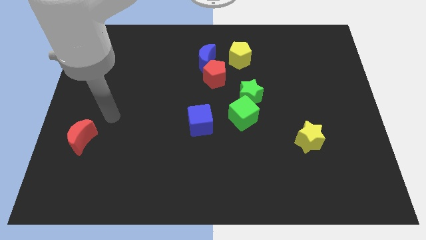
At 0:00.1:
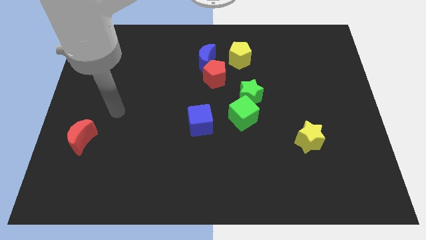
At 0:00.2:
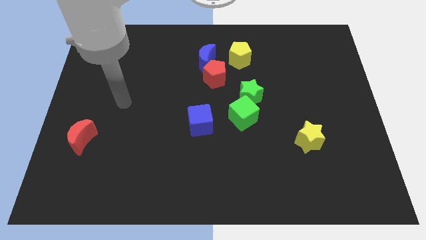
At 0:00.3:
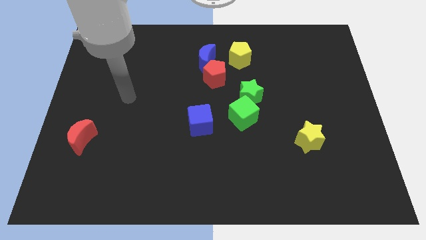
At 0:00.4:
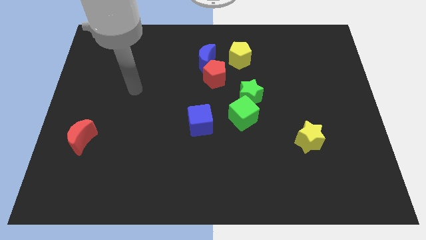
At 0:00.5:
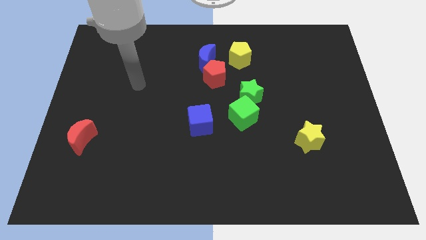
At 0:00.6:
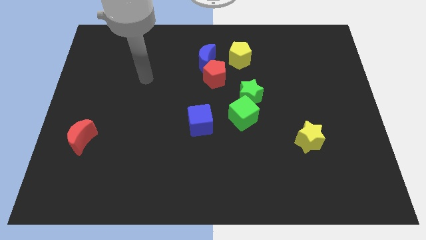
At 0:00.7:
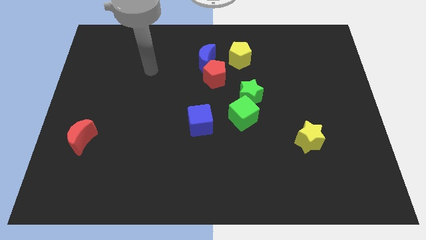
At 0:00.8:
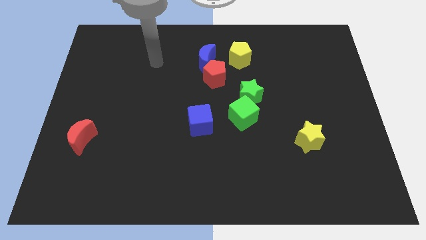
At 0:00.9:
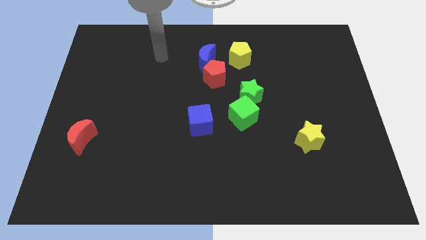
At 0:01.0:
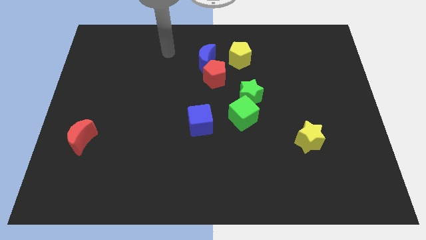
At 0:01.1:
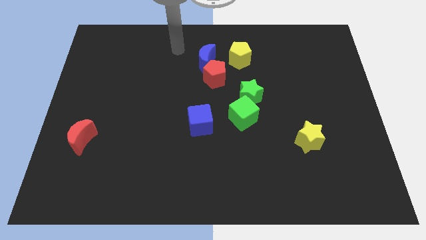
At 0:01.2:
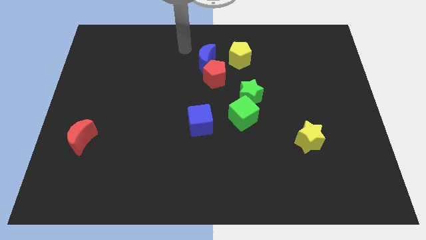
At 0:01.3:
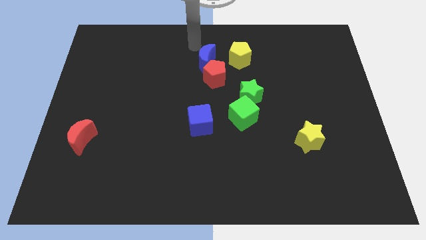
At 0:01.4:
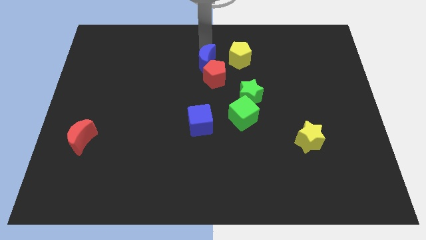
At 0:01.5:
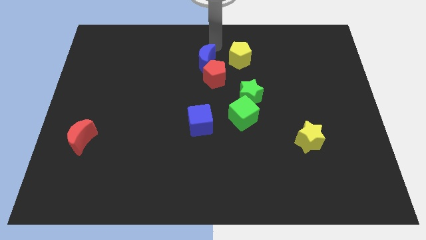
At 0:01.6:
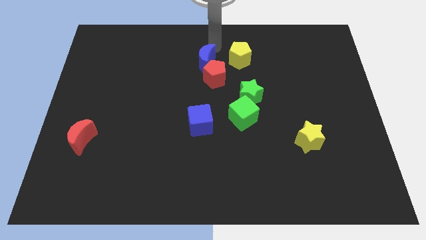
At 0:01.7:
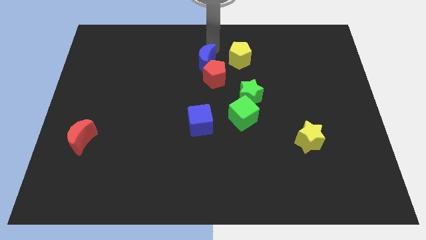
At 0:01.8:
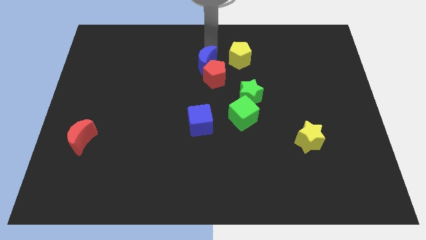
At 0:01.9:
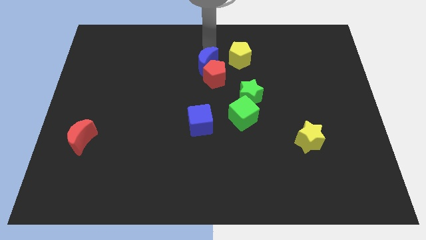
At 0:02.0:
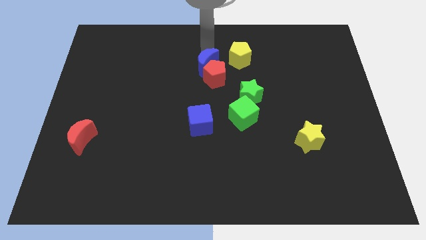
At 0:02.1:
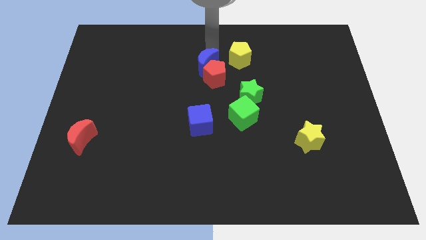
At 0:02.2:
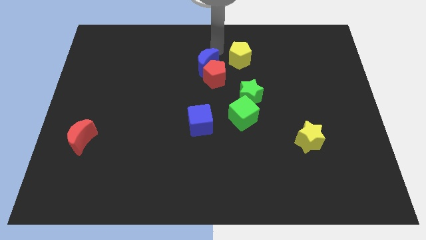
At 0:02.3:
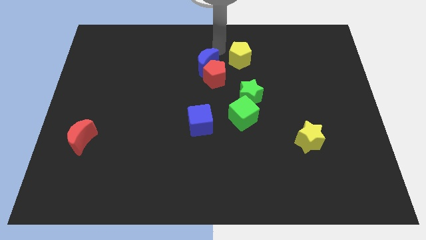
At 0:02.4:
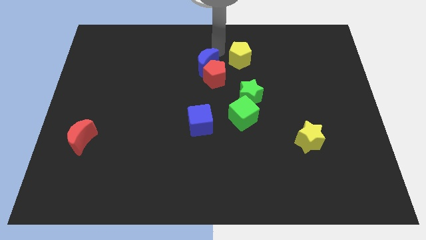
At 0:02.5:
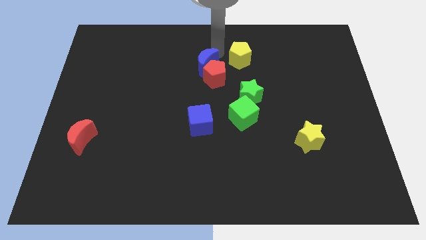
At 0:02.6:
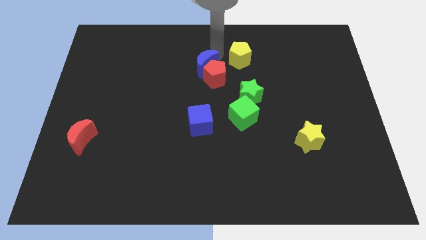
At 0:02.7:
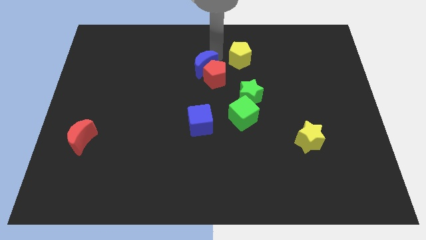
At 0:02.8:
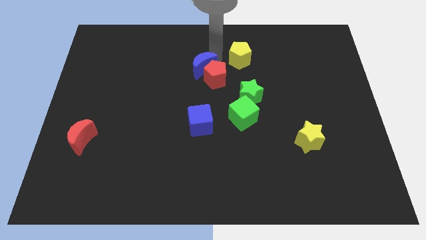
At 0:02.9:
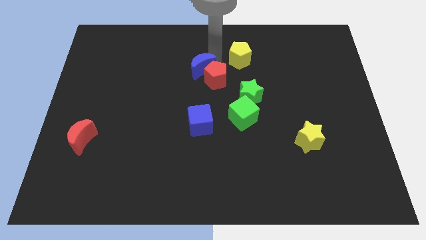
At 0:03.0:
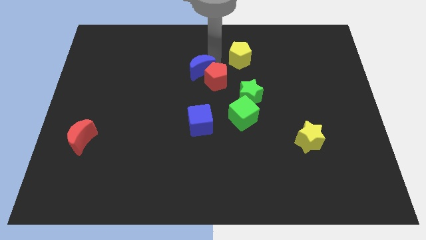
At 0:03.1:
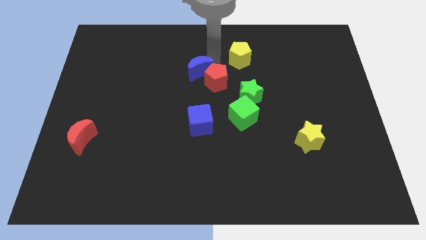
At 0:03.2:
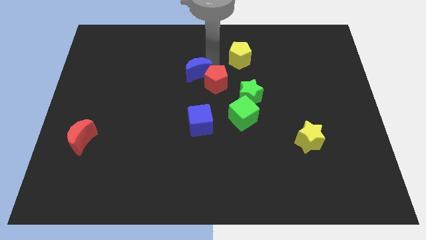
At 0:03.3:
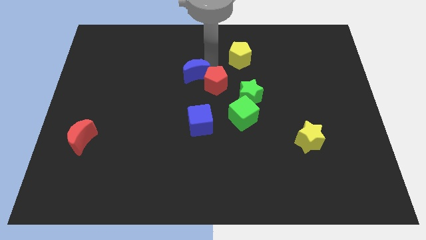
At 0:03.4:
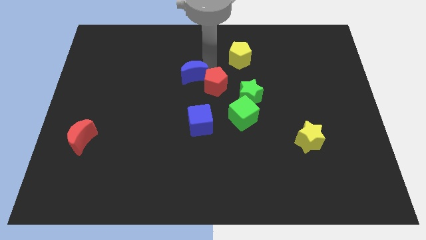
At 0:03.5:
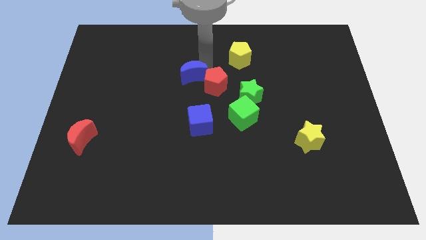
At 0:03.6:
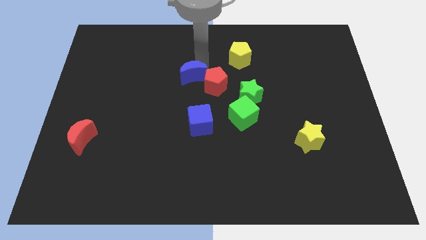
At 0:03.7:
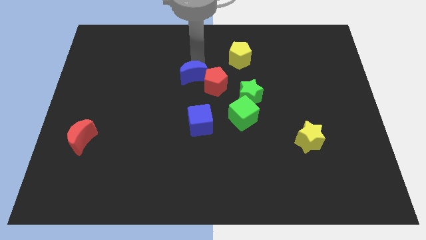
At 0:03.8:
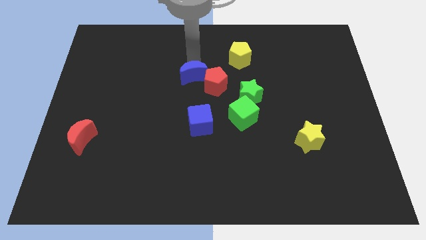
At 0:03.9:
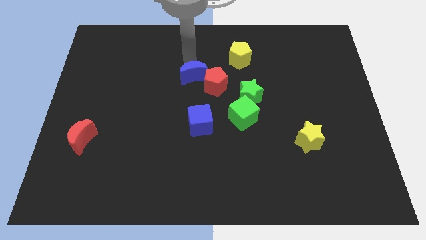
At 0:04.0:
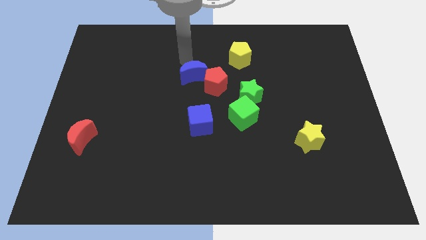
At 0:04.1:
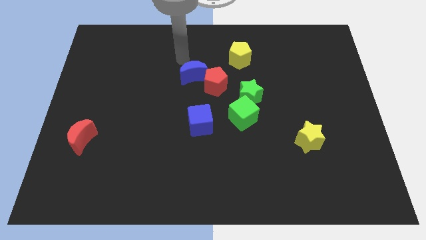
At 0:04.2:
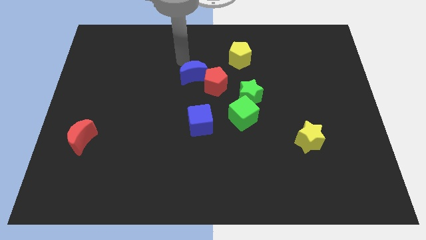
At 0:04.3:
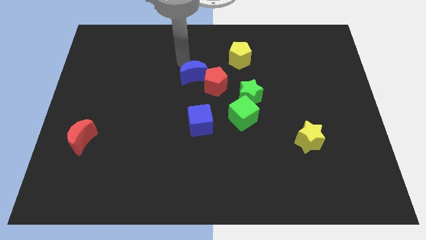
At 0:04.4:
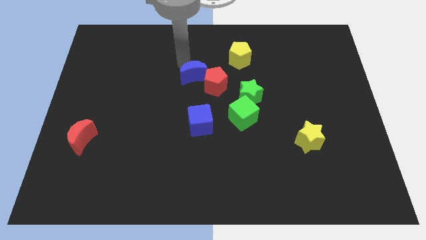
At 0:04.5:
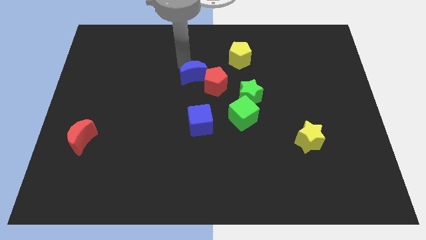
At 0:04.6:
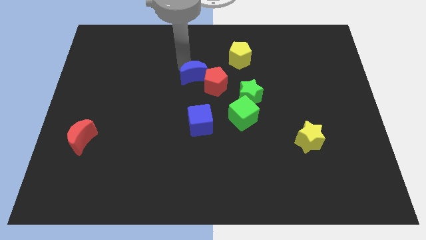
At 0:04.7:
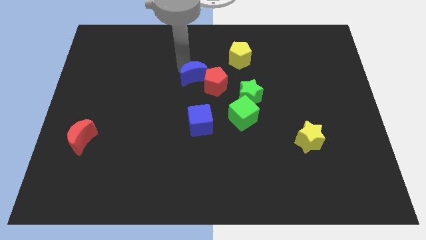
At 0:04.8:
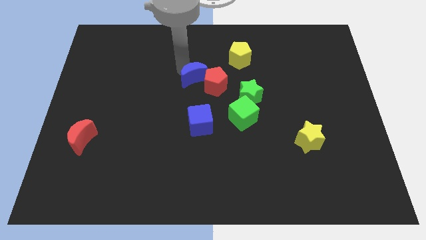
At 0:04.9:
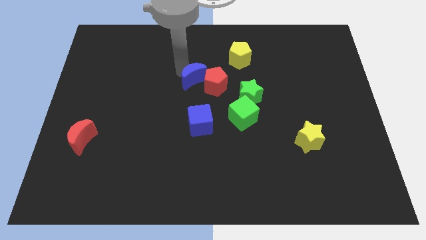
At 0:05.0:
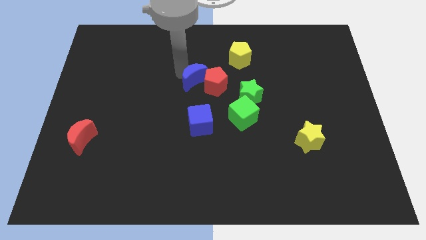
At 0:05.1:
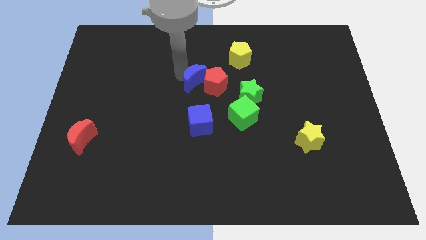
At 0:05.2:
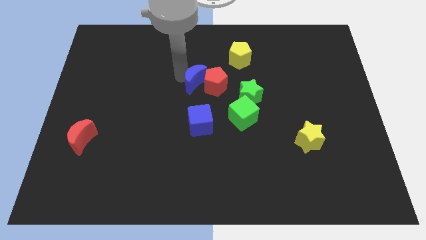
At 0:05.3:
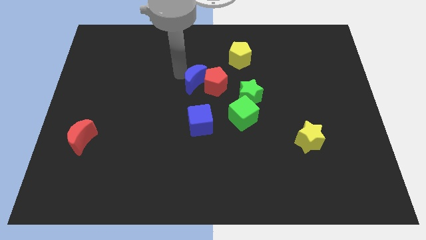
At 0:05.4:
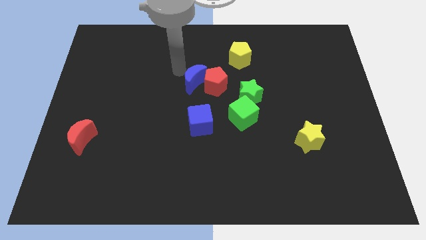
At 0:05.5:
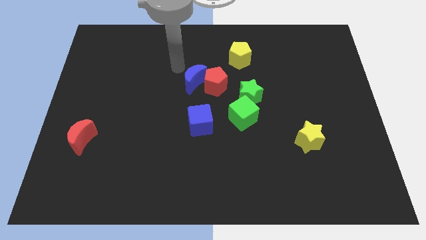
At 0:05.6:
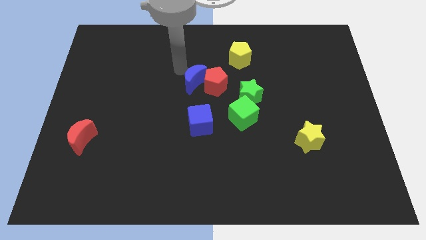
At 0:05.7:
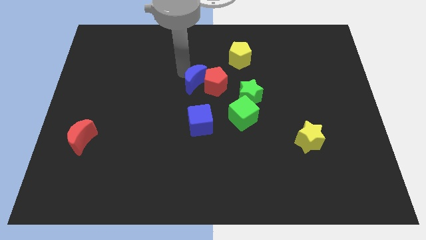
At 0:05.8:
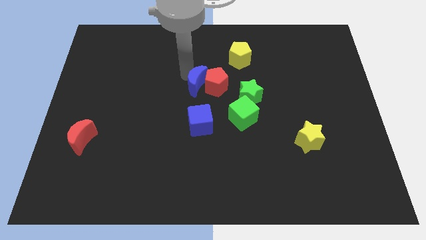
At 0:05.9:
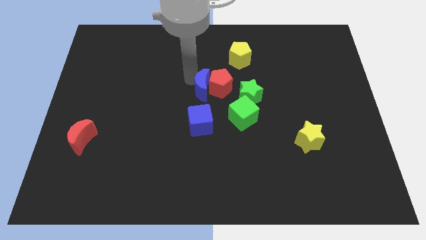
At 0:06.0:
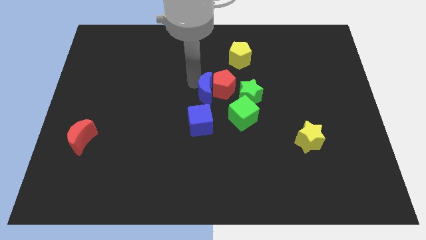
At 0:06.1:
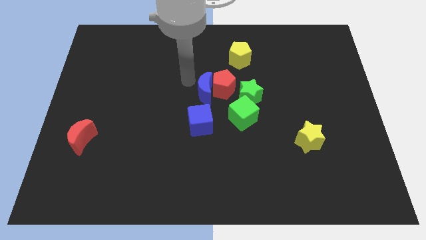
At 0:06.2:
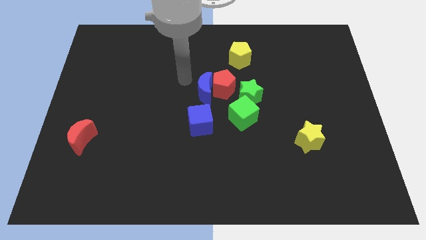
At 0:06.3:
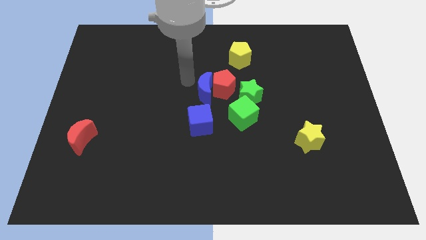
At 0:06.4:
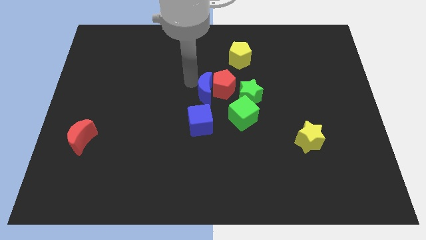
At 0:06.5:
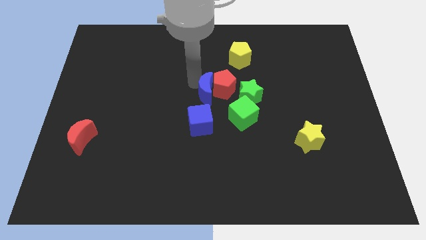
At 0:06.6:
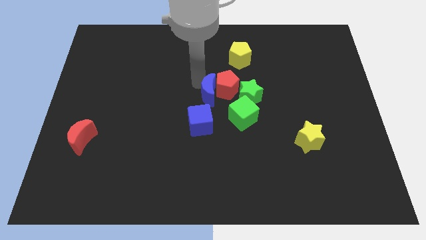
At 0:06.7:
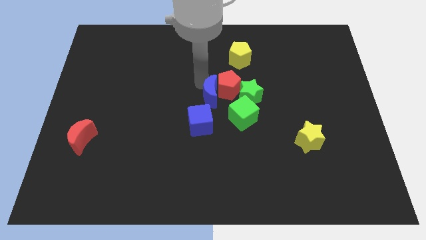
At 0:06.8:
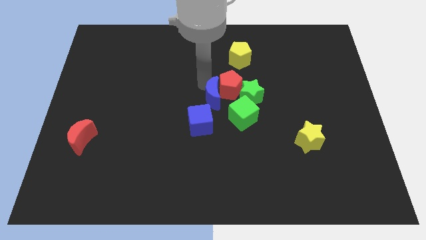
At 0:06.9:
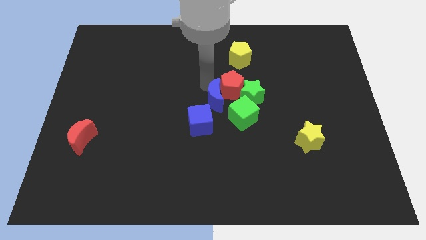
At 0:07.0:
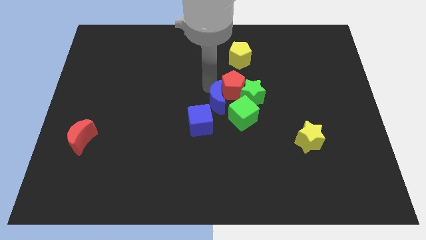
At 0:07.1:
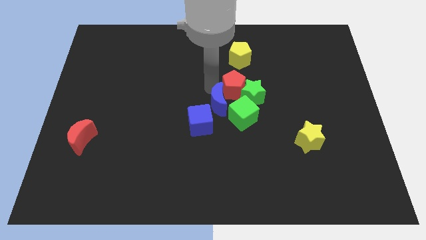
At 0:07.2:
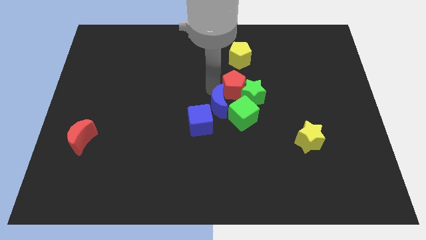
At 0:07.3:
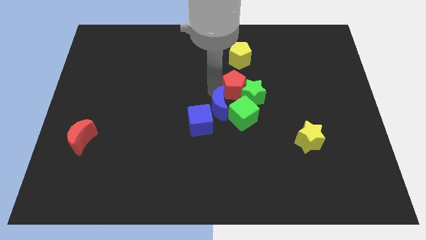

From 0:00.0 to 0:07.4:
put the blue moon towards the green cube
